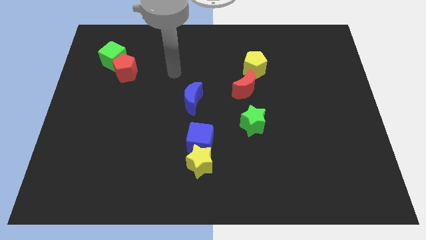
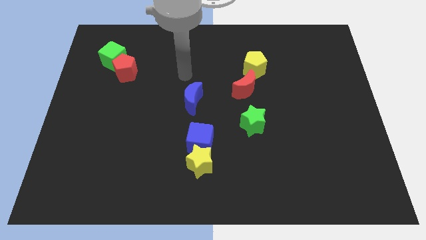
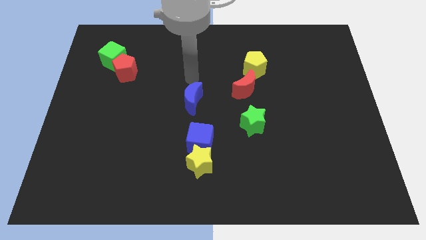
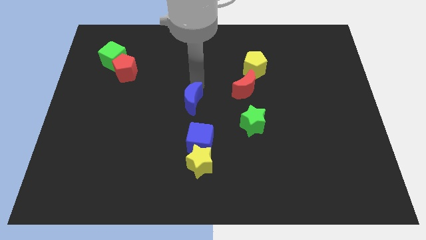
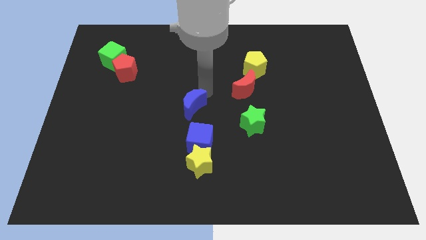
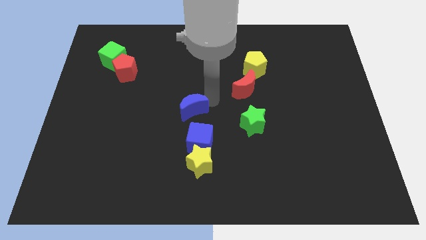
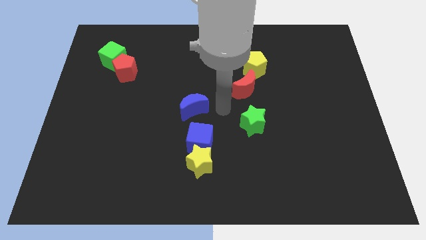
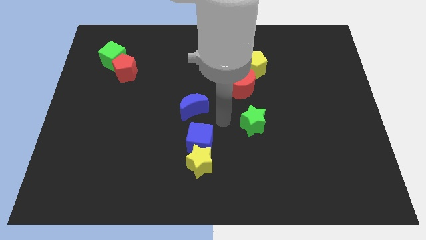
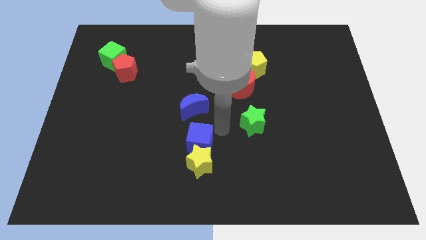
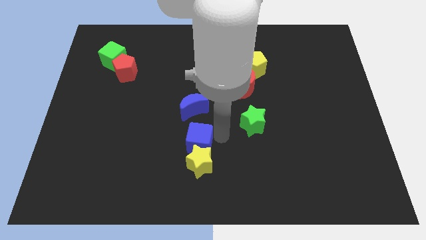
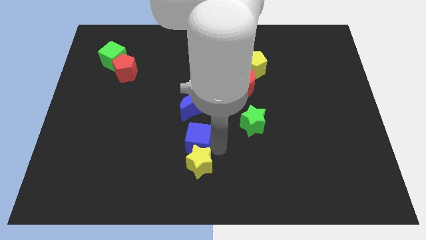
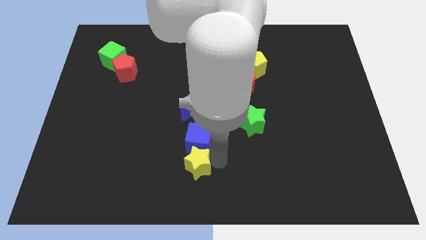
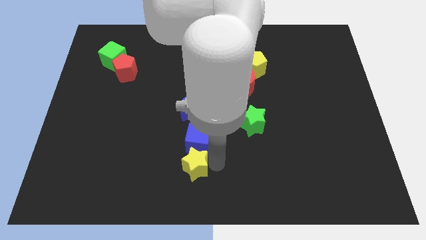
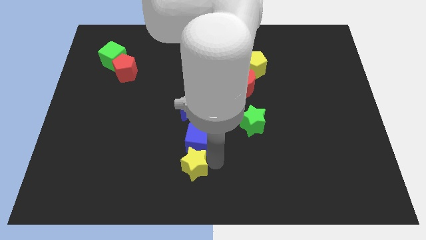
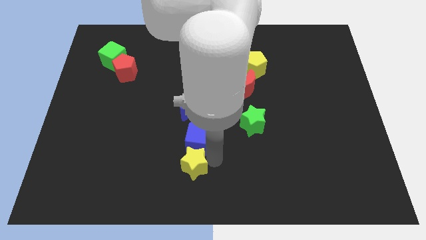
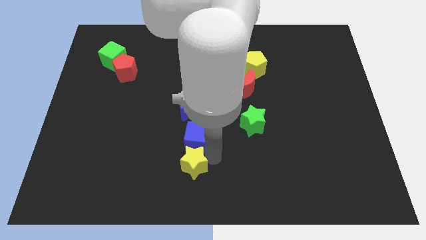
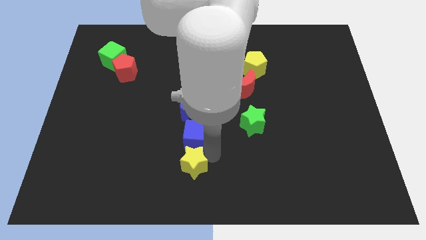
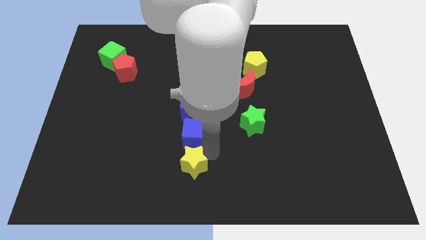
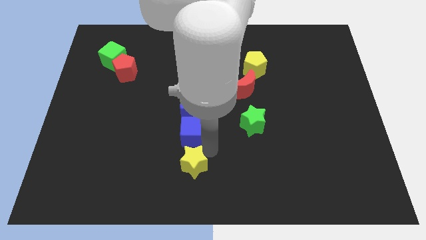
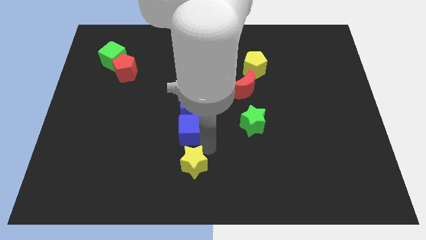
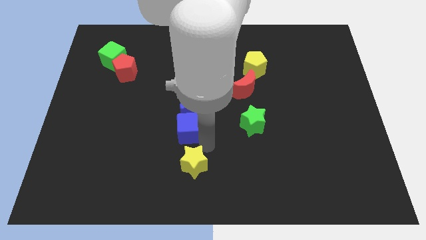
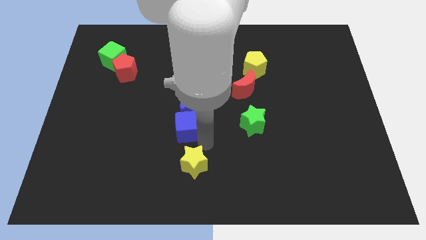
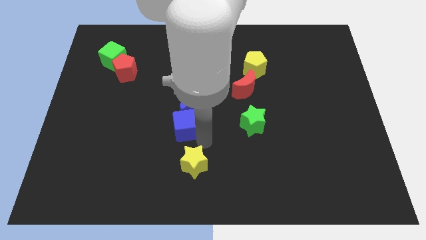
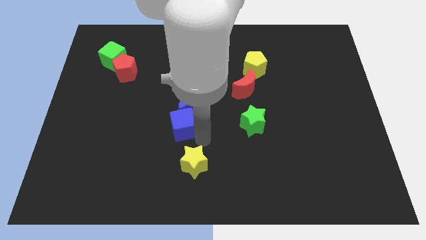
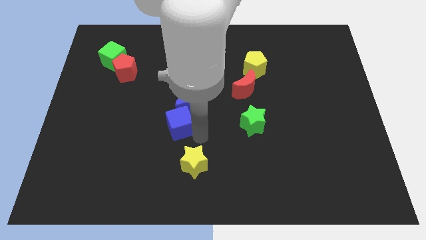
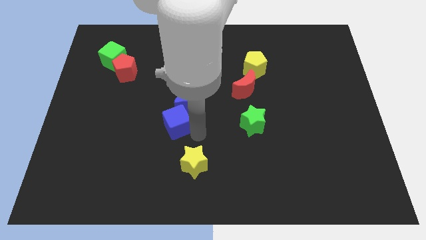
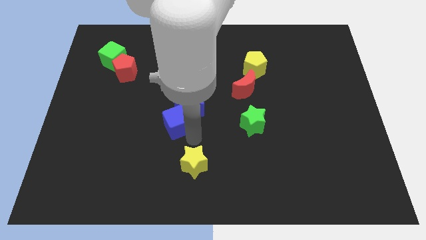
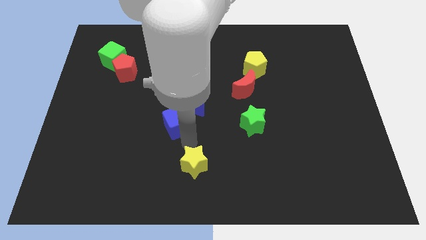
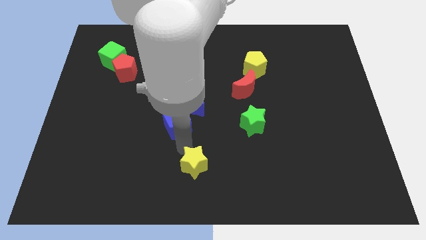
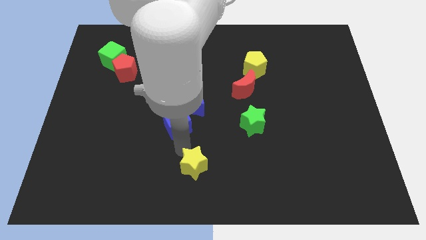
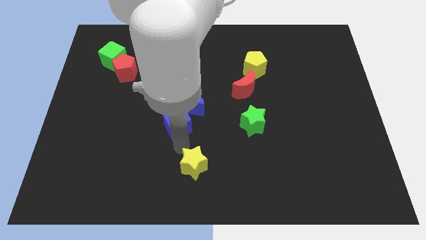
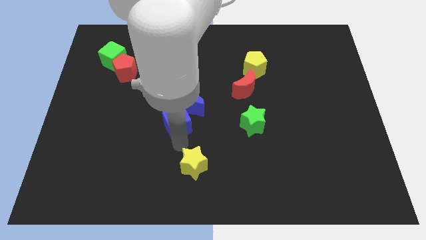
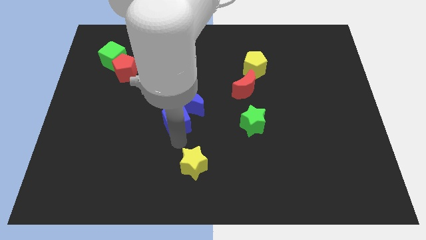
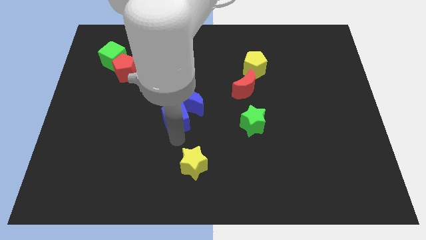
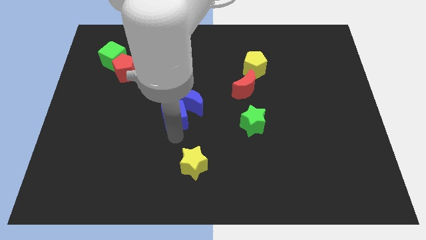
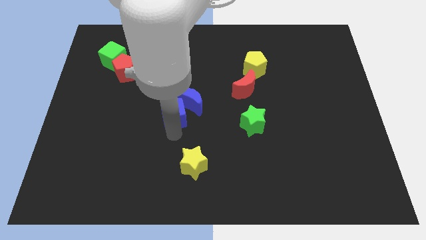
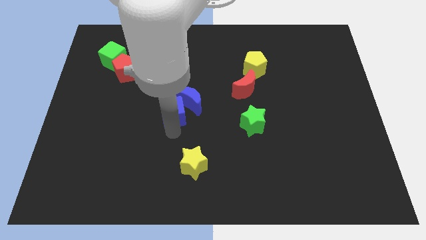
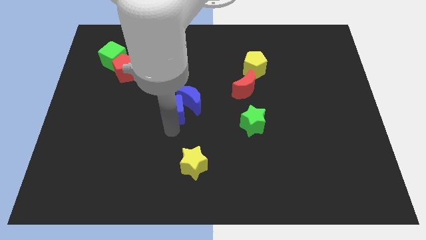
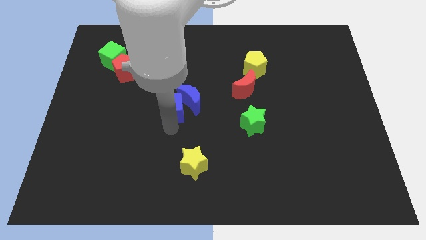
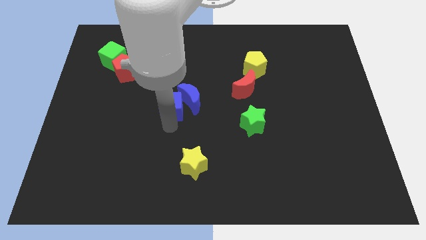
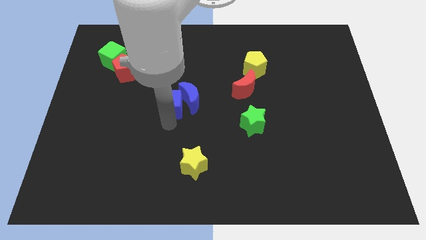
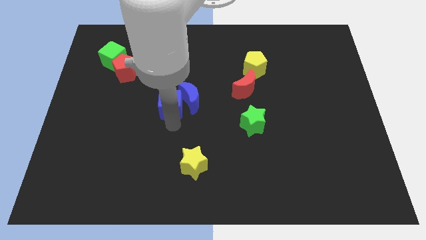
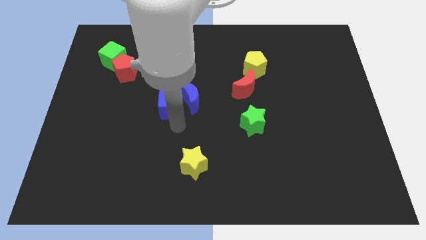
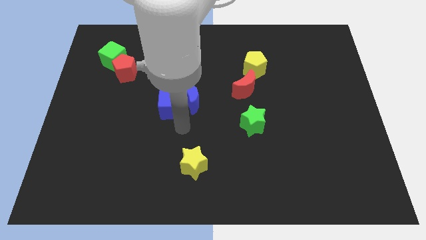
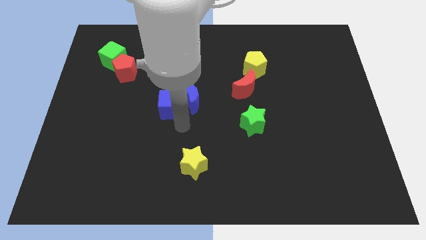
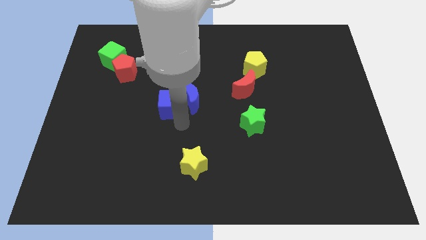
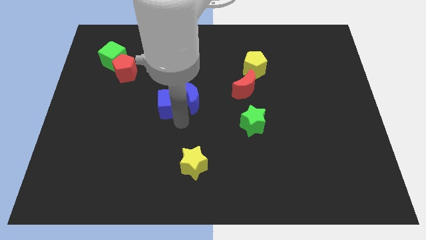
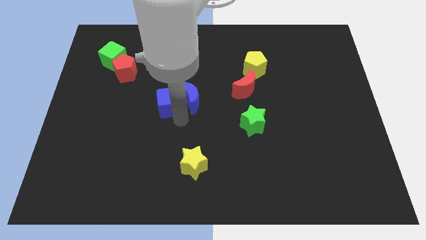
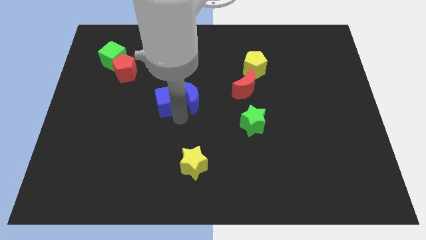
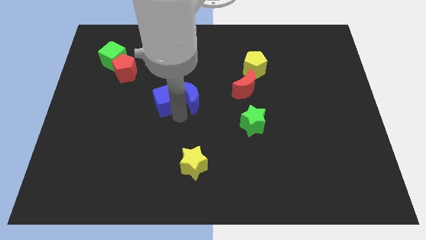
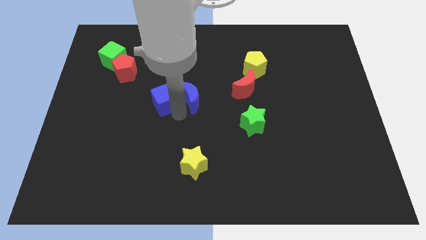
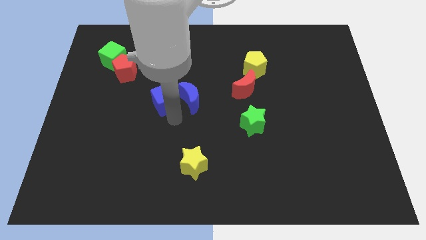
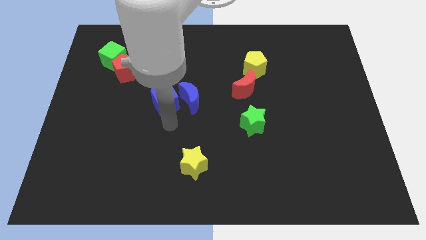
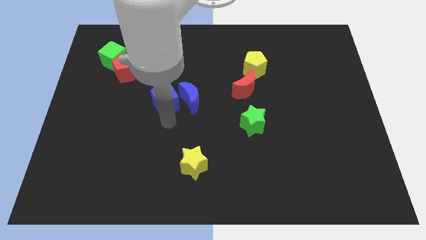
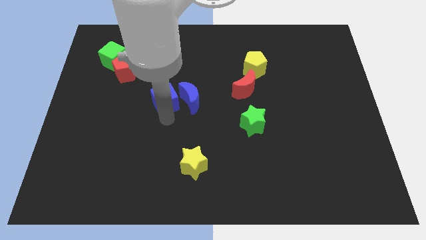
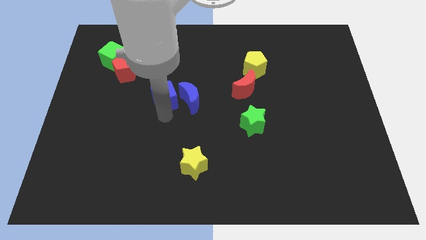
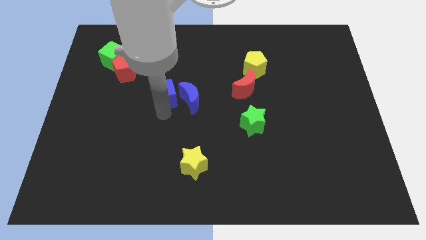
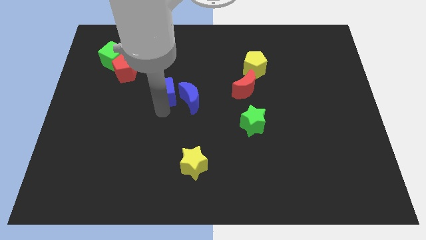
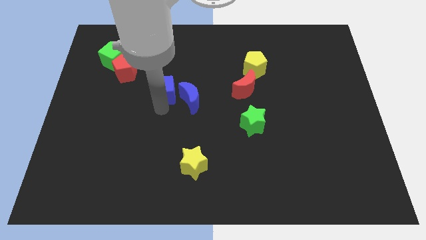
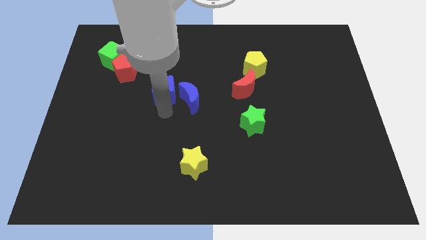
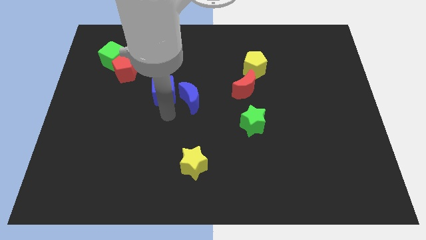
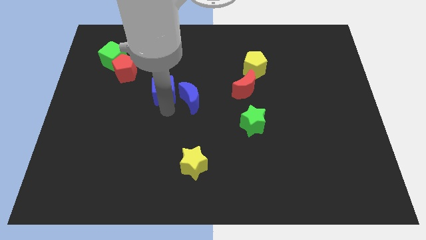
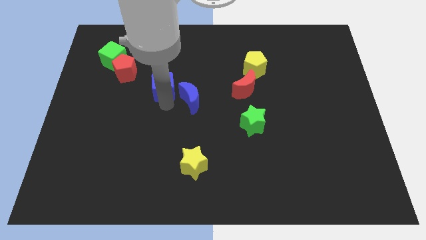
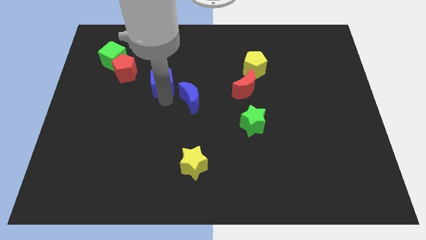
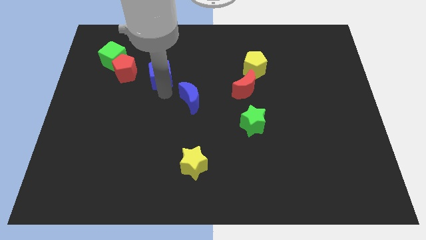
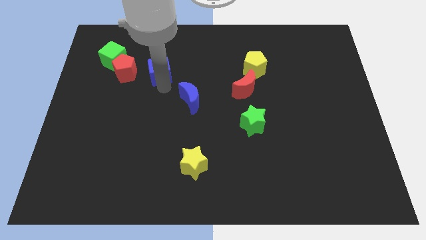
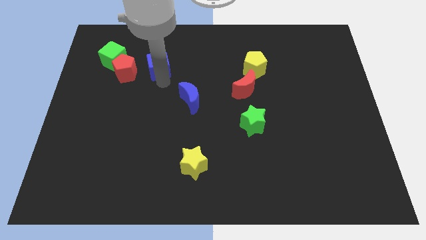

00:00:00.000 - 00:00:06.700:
push the blue cube just right of the green cube

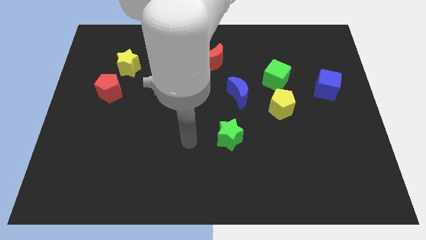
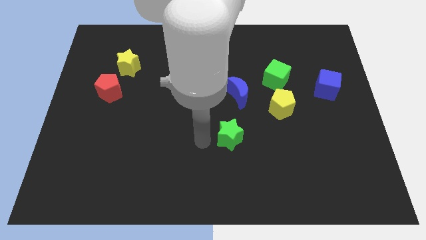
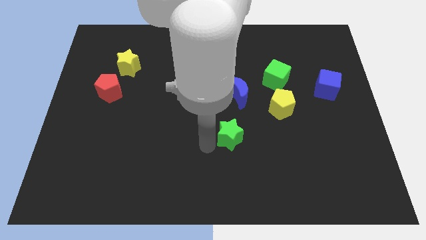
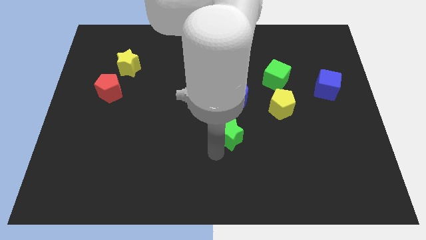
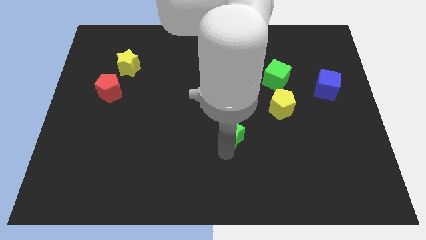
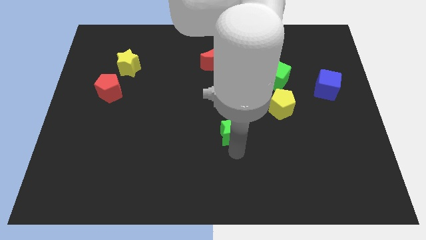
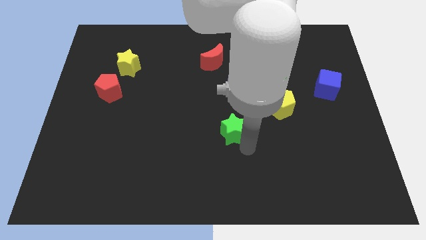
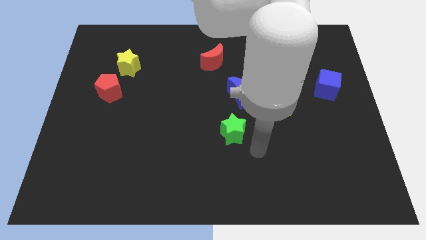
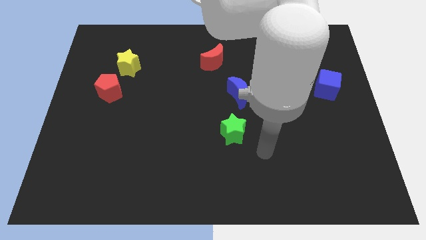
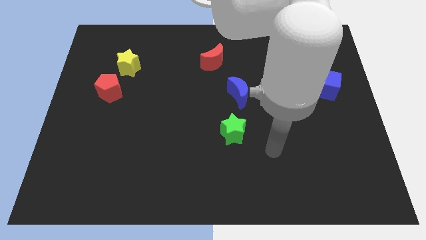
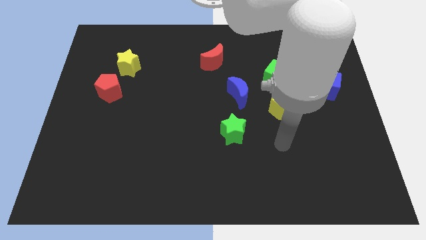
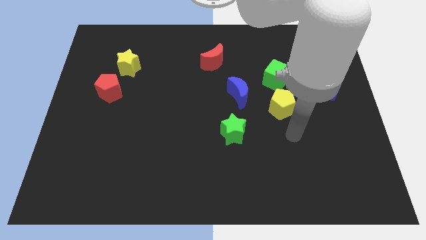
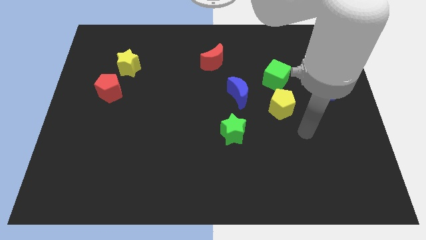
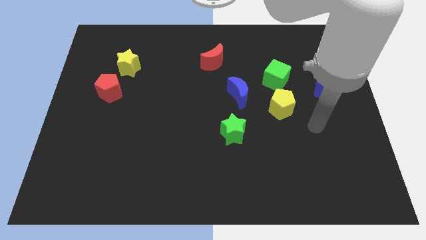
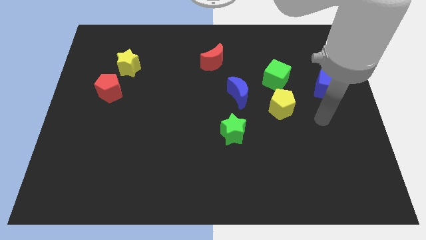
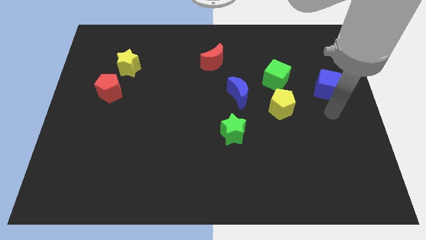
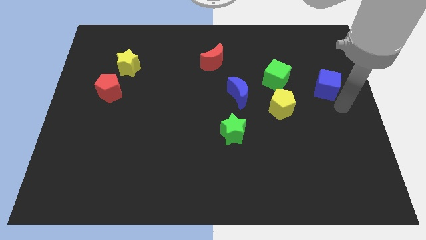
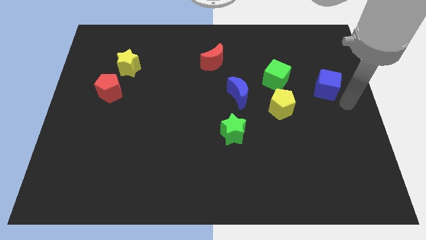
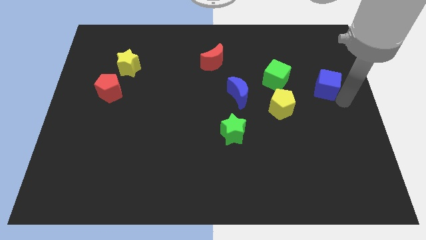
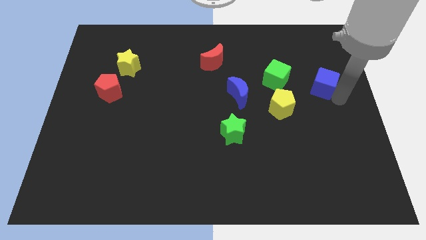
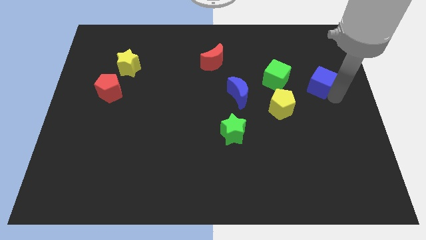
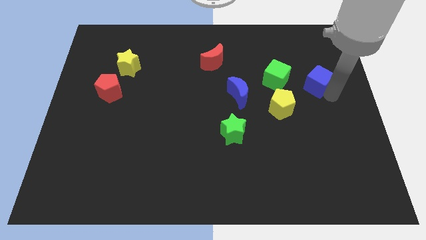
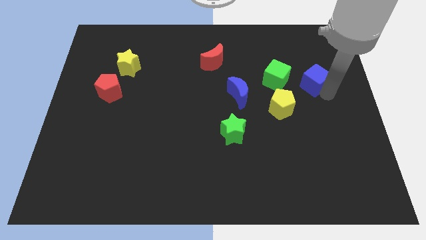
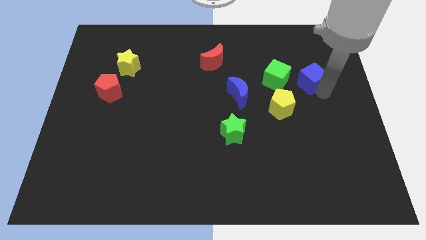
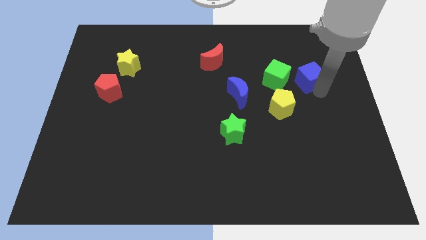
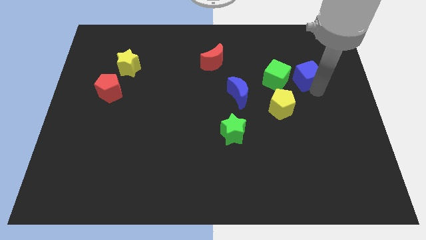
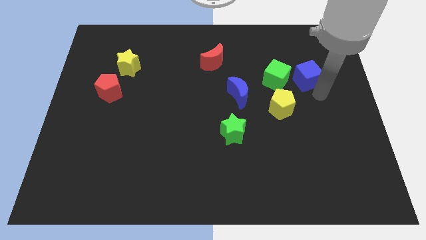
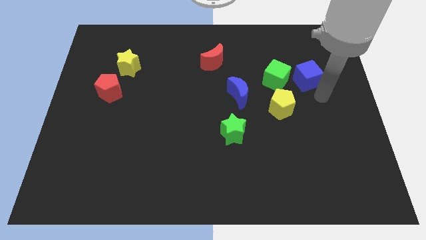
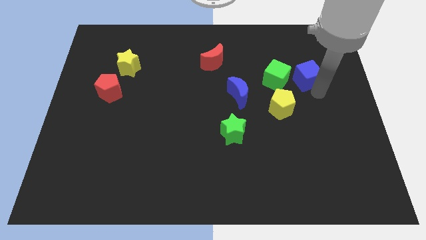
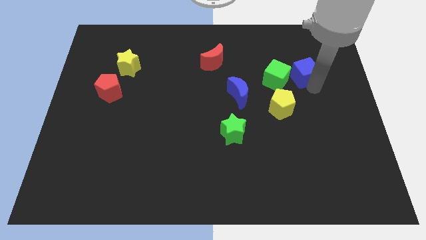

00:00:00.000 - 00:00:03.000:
slide the blue cube to the top right side of the green cube
